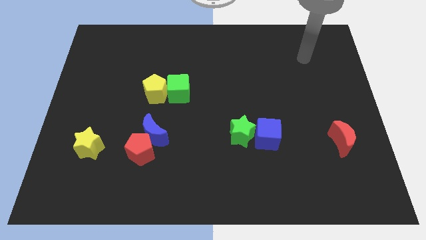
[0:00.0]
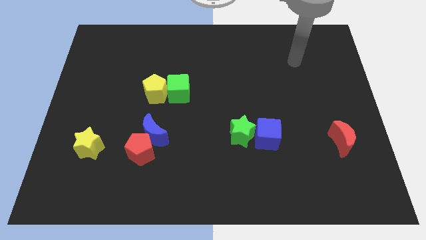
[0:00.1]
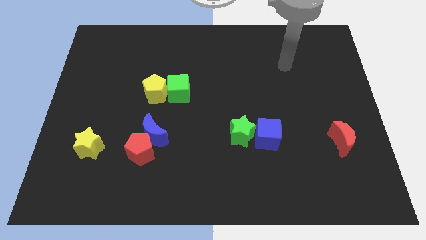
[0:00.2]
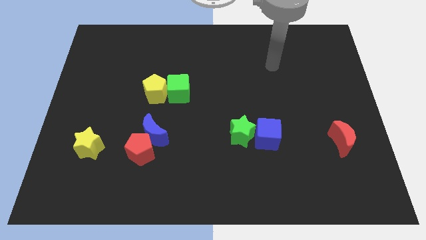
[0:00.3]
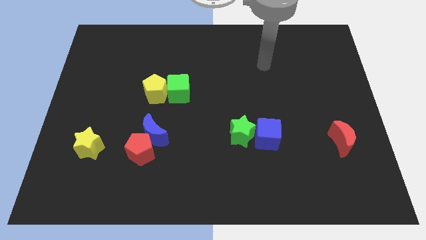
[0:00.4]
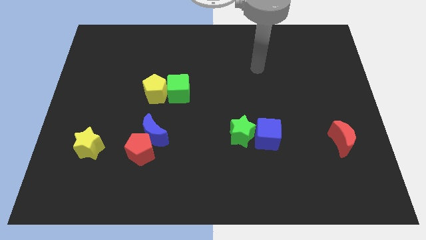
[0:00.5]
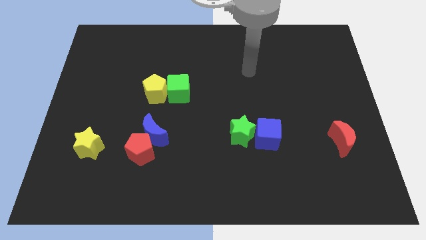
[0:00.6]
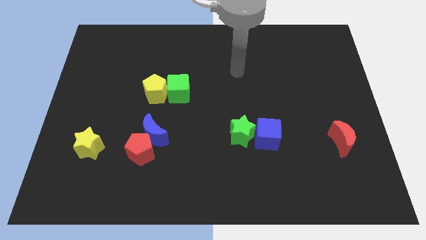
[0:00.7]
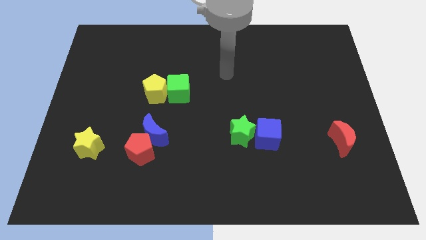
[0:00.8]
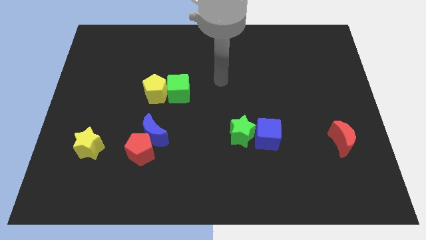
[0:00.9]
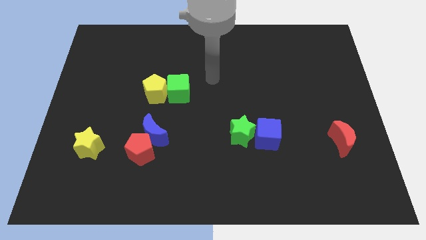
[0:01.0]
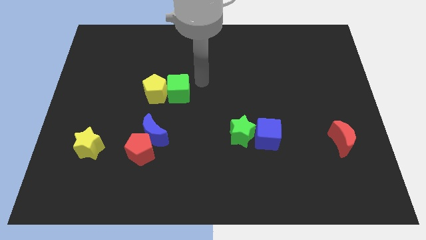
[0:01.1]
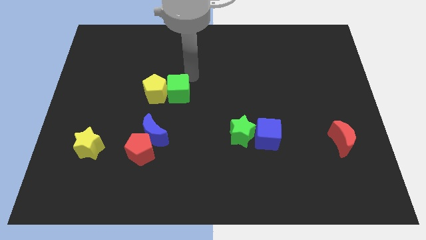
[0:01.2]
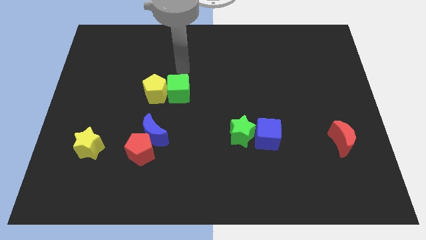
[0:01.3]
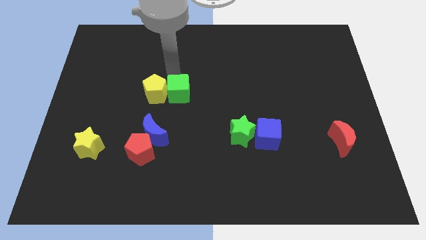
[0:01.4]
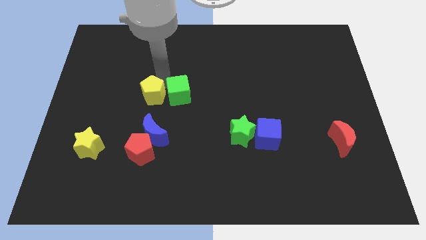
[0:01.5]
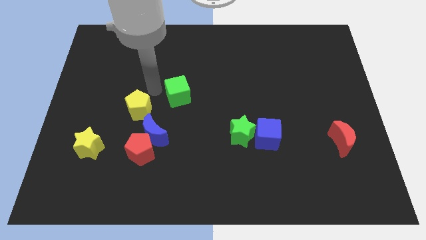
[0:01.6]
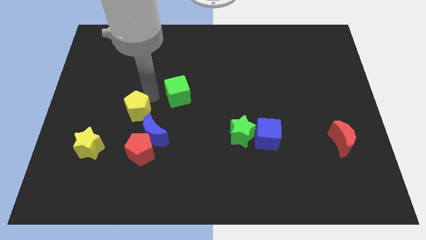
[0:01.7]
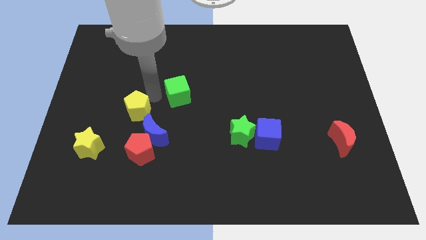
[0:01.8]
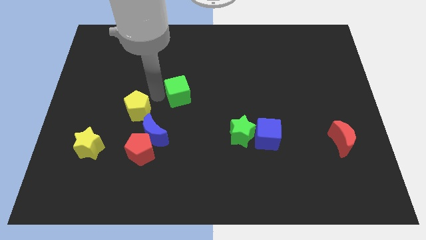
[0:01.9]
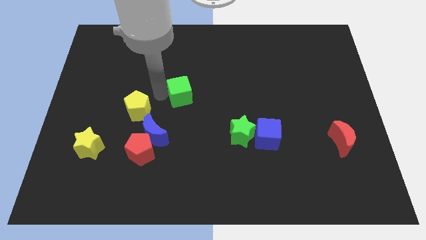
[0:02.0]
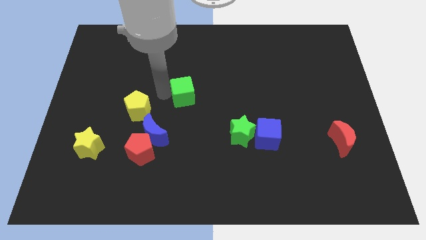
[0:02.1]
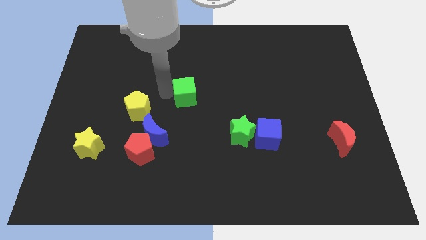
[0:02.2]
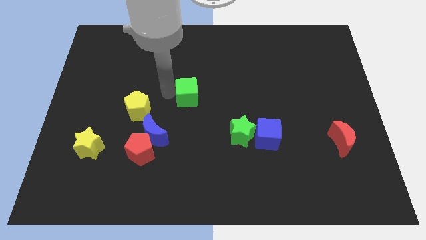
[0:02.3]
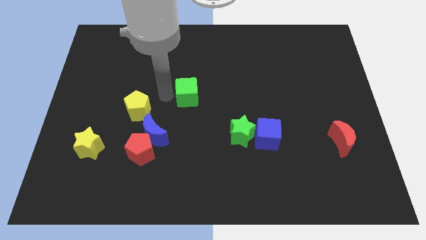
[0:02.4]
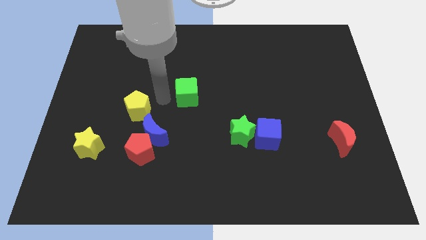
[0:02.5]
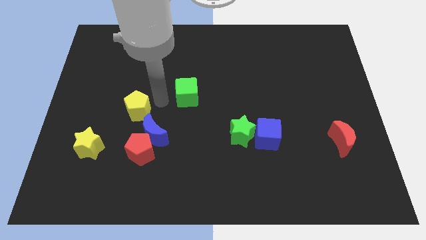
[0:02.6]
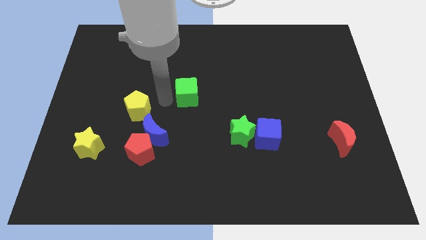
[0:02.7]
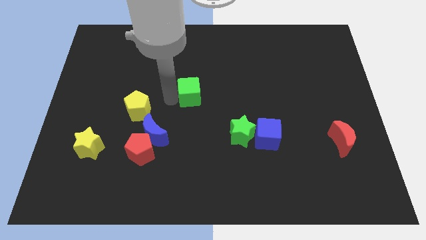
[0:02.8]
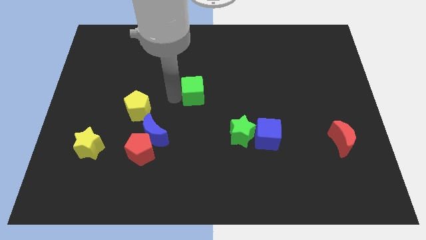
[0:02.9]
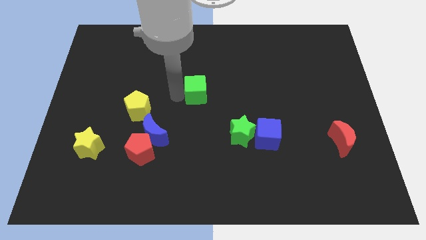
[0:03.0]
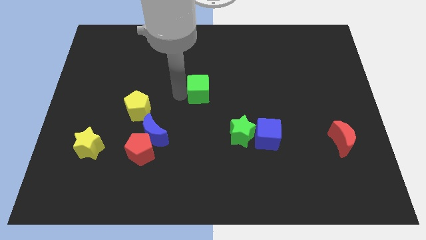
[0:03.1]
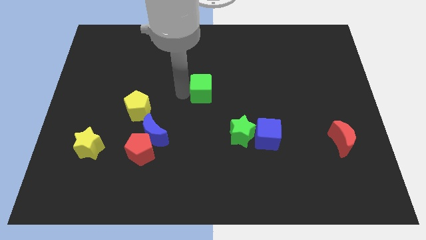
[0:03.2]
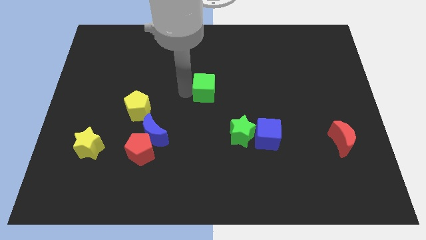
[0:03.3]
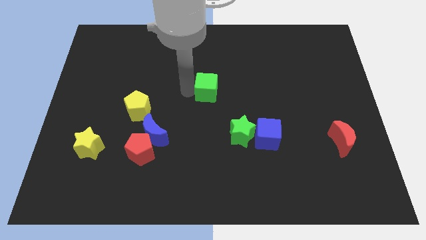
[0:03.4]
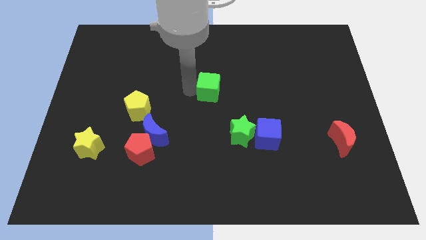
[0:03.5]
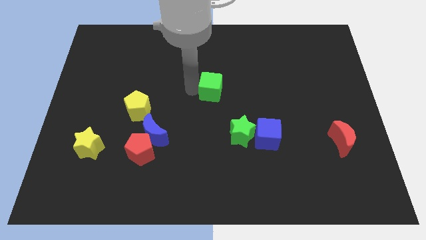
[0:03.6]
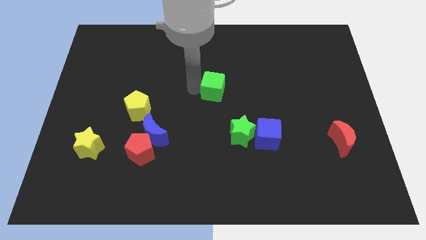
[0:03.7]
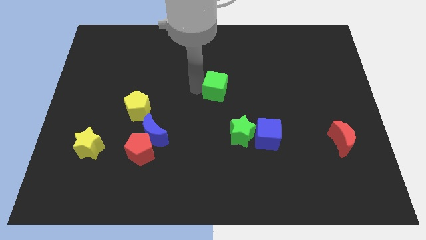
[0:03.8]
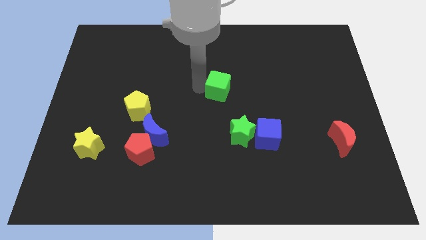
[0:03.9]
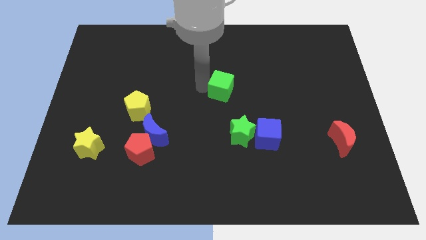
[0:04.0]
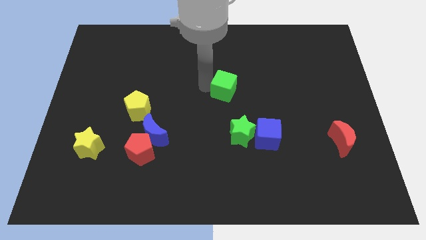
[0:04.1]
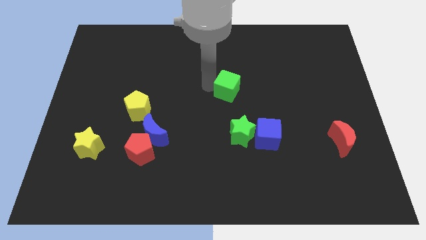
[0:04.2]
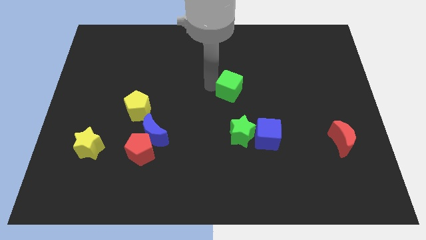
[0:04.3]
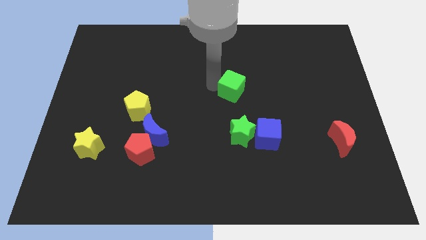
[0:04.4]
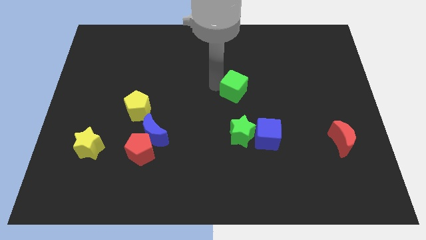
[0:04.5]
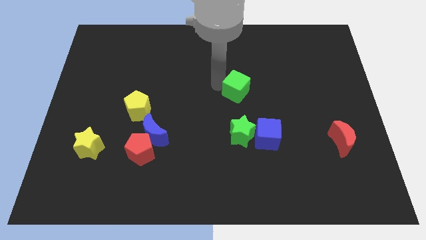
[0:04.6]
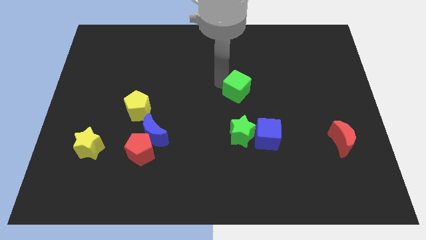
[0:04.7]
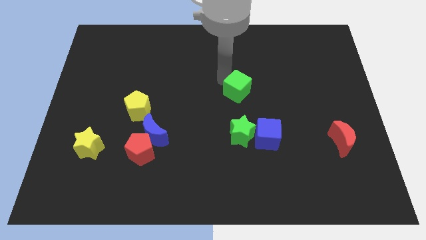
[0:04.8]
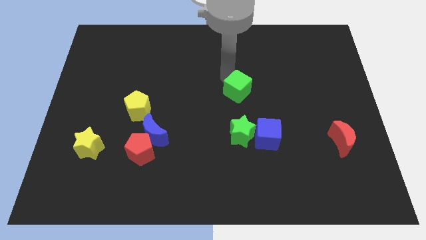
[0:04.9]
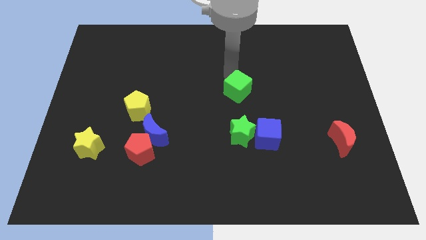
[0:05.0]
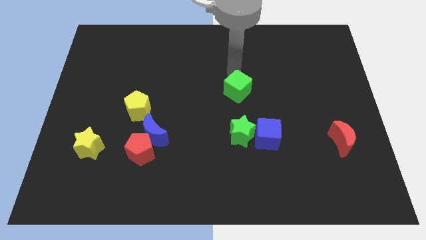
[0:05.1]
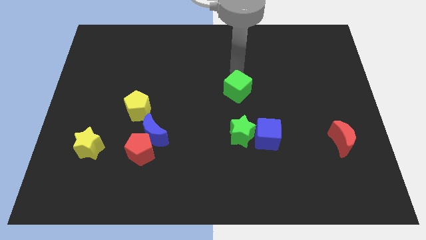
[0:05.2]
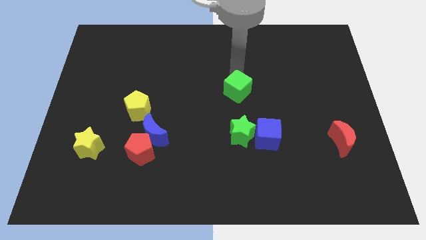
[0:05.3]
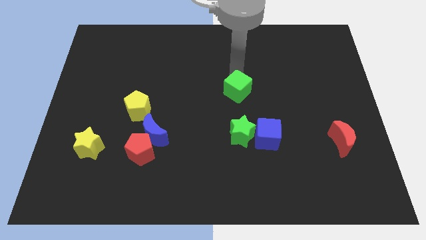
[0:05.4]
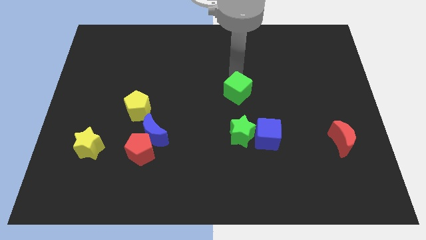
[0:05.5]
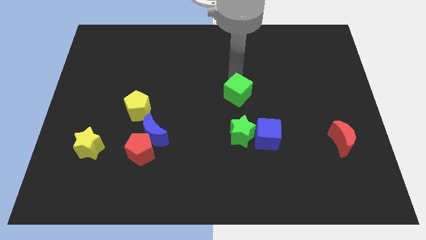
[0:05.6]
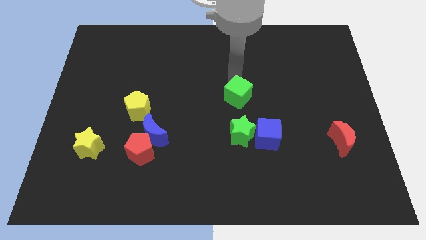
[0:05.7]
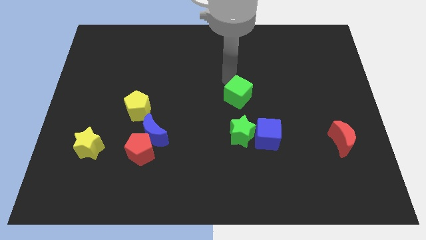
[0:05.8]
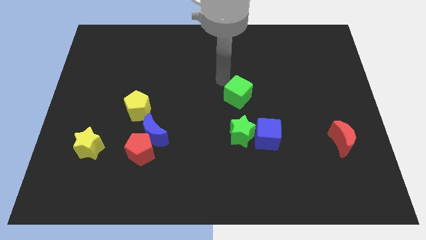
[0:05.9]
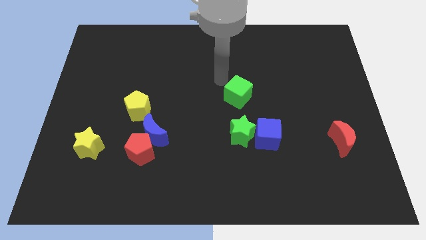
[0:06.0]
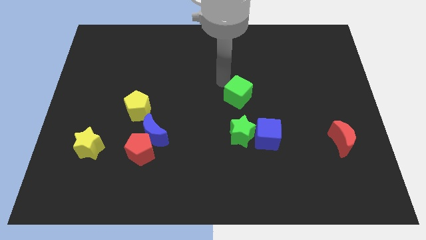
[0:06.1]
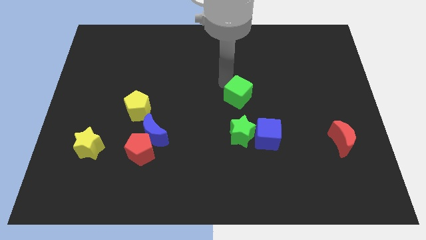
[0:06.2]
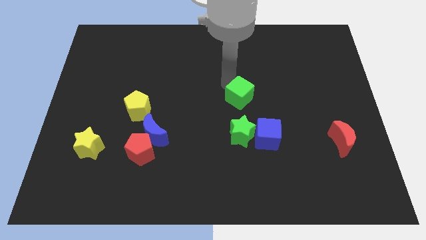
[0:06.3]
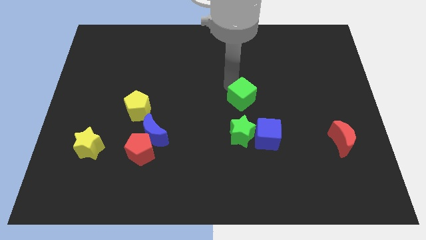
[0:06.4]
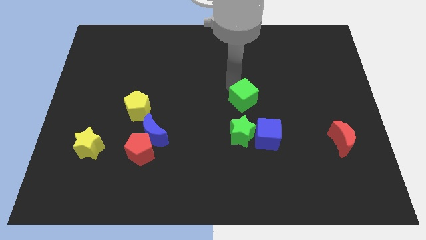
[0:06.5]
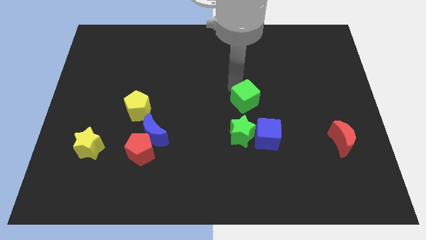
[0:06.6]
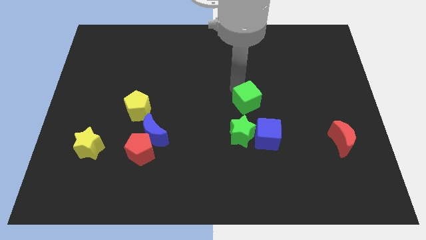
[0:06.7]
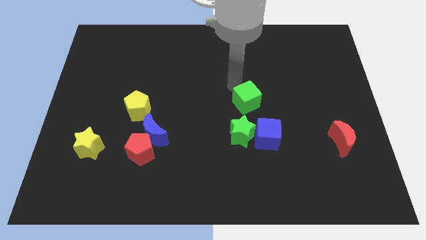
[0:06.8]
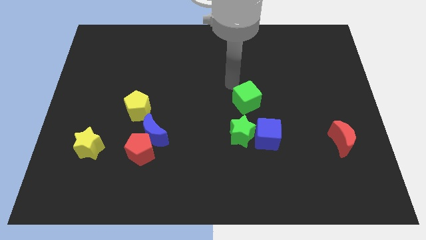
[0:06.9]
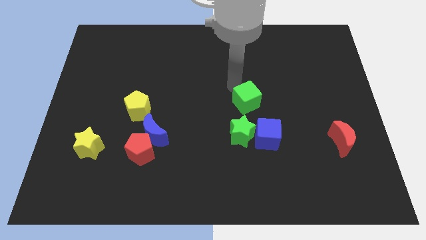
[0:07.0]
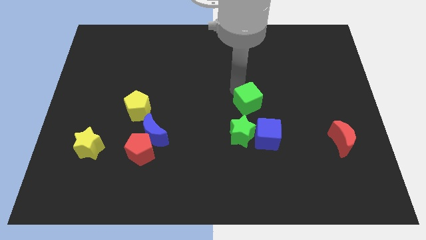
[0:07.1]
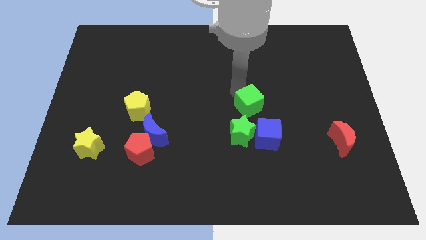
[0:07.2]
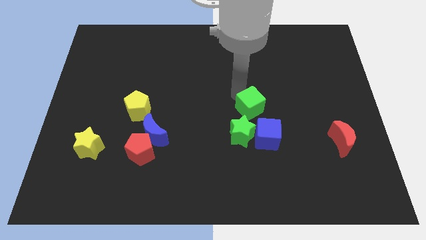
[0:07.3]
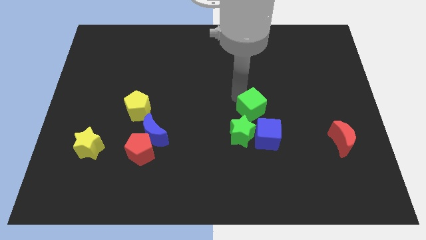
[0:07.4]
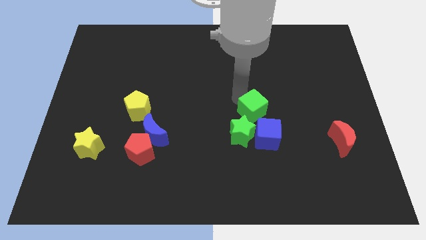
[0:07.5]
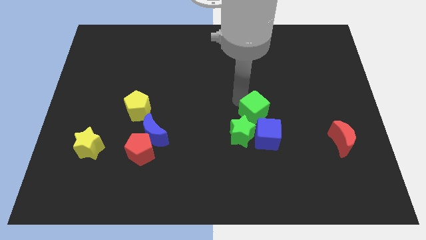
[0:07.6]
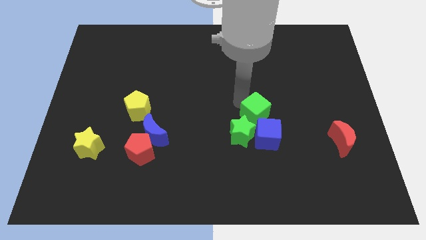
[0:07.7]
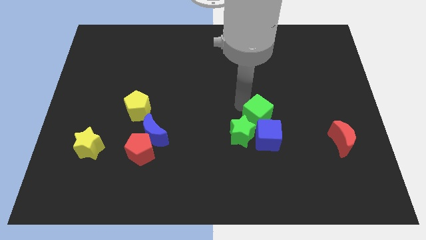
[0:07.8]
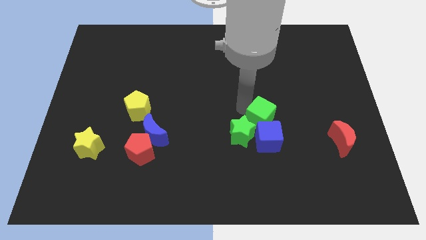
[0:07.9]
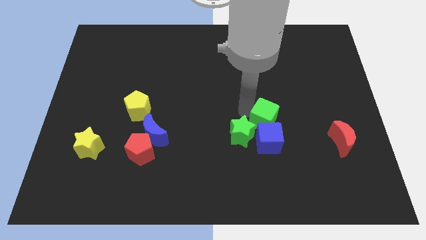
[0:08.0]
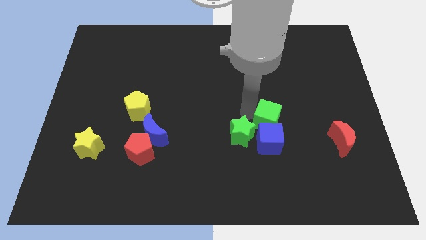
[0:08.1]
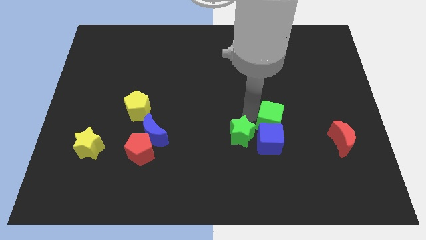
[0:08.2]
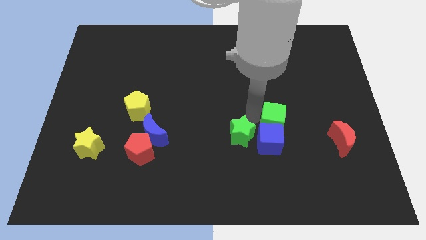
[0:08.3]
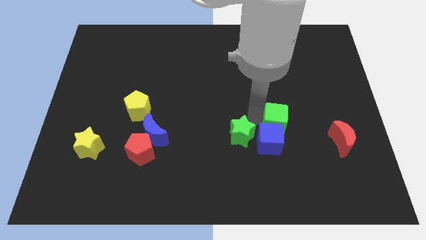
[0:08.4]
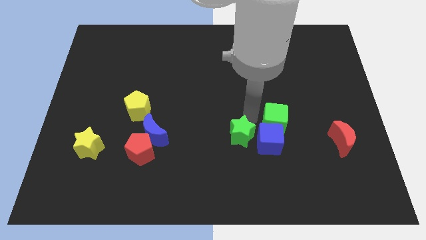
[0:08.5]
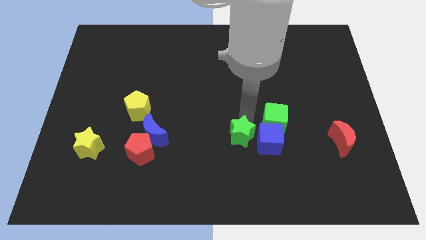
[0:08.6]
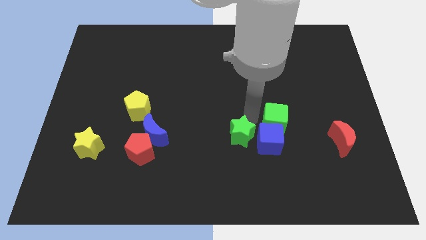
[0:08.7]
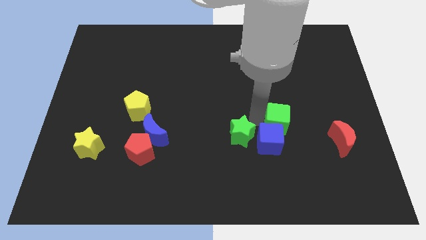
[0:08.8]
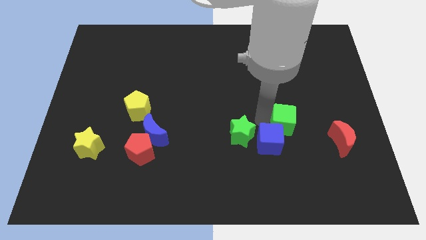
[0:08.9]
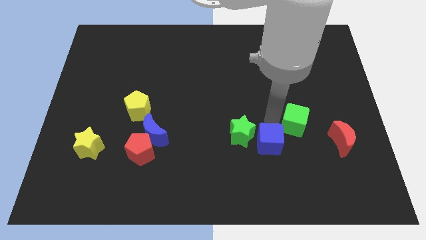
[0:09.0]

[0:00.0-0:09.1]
push the green cube to the right side of the blue cube
